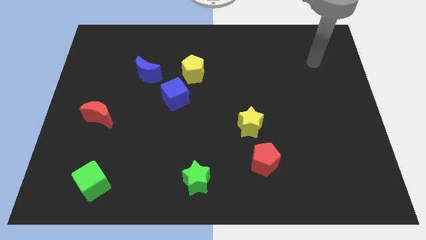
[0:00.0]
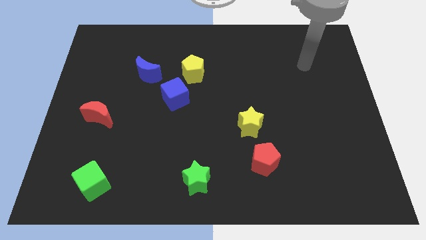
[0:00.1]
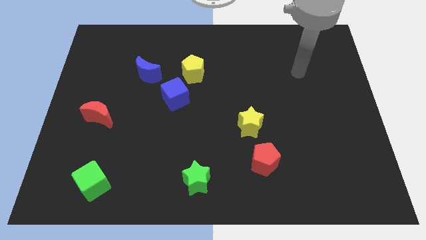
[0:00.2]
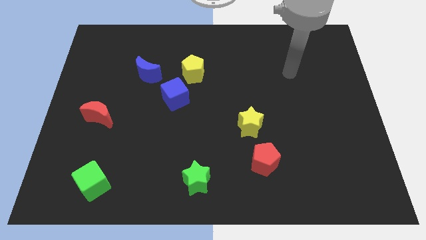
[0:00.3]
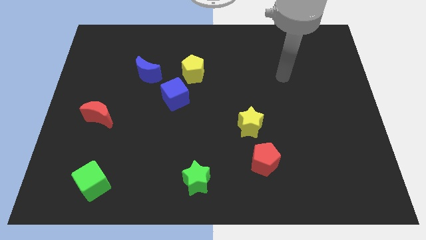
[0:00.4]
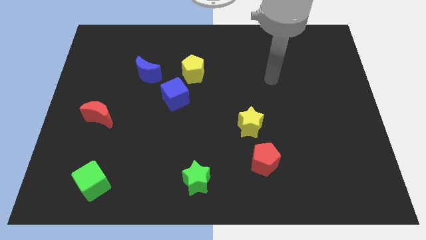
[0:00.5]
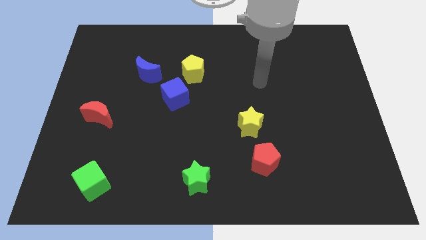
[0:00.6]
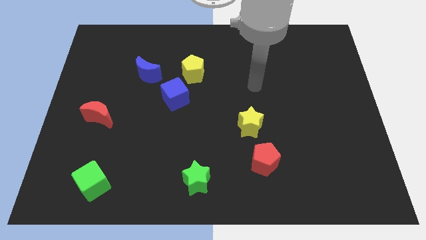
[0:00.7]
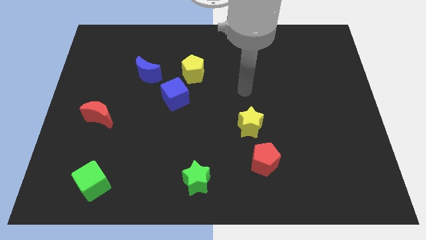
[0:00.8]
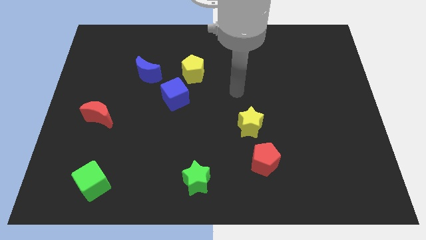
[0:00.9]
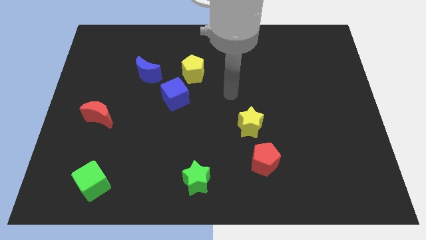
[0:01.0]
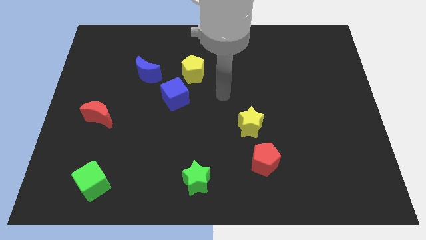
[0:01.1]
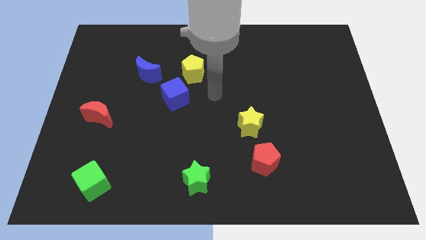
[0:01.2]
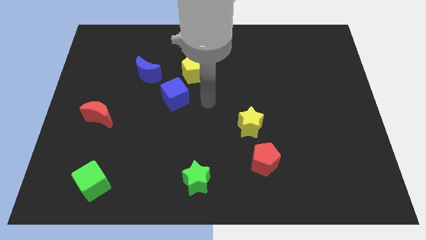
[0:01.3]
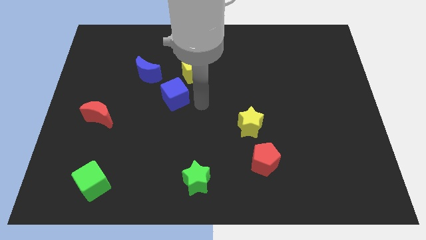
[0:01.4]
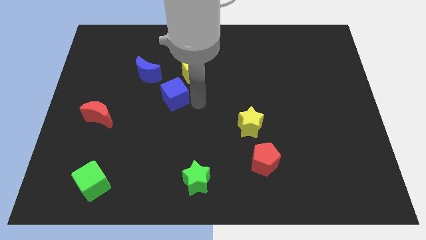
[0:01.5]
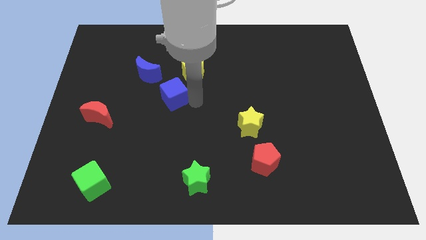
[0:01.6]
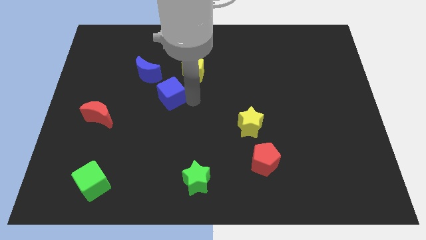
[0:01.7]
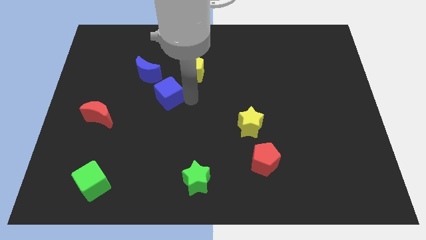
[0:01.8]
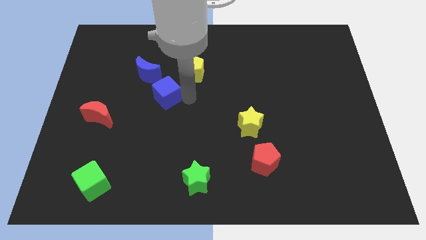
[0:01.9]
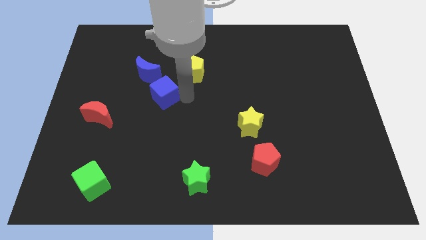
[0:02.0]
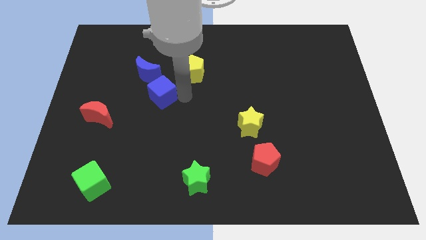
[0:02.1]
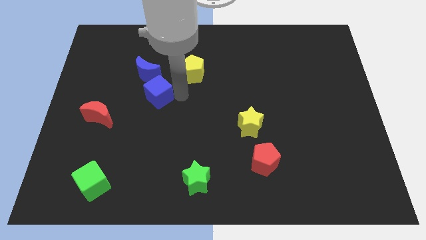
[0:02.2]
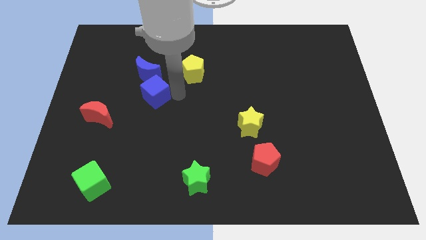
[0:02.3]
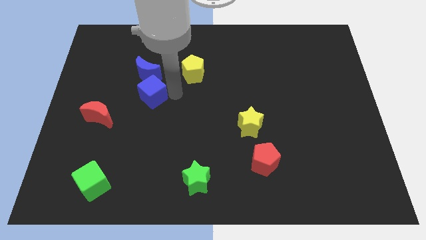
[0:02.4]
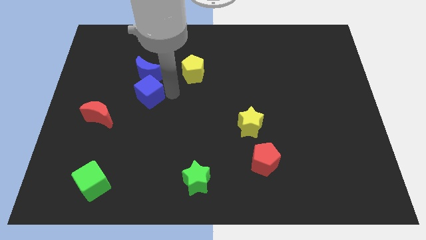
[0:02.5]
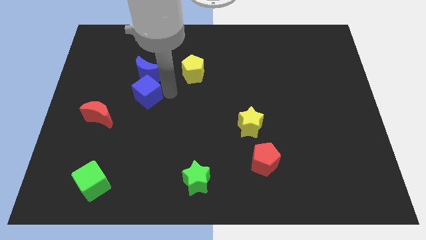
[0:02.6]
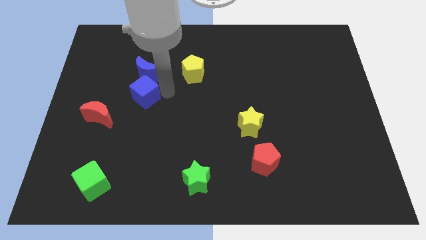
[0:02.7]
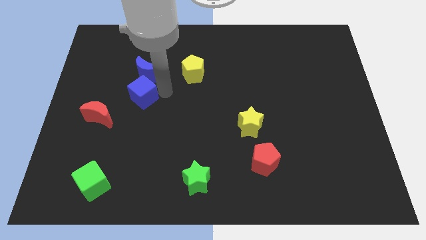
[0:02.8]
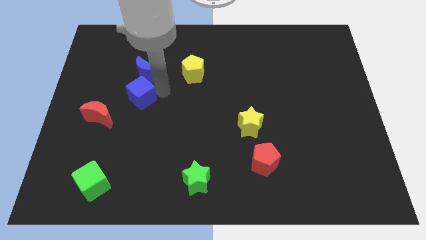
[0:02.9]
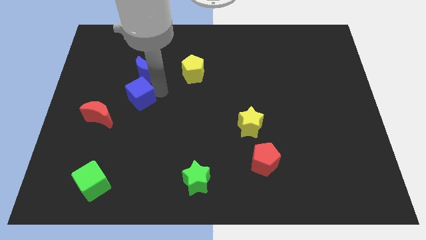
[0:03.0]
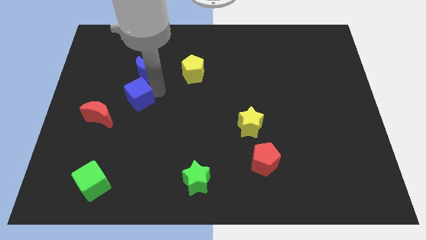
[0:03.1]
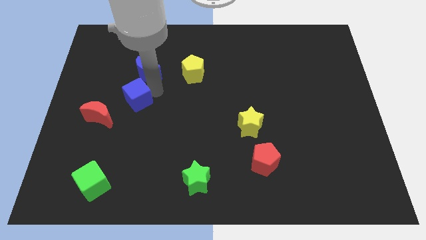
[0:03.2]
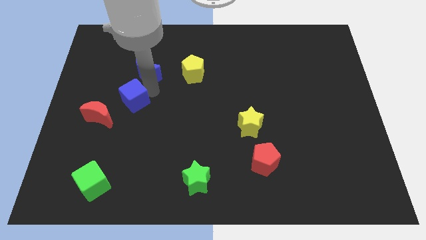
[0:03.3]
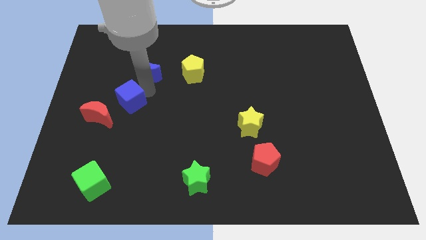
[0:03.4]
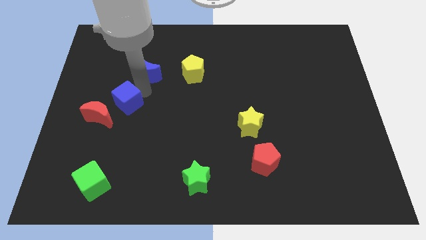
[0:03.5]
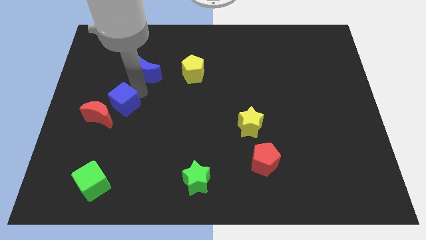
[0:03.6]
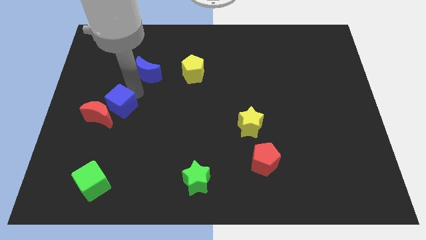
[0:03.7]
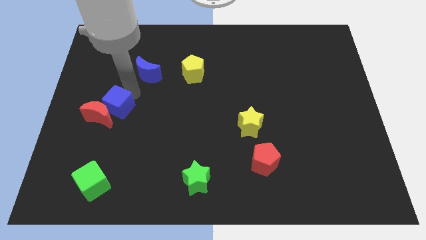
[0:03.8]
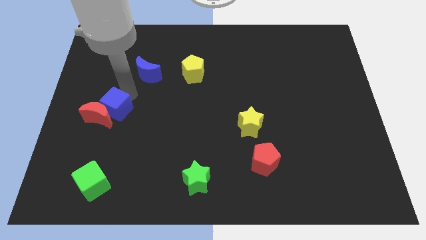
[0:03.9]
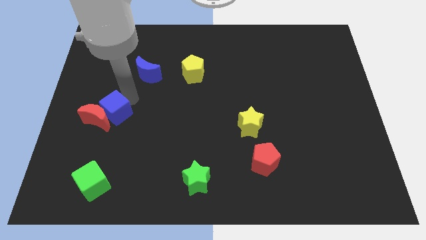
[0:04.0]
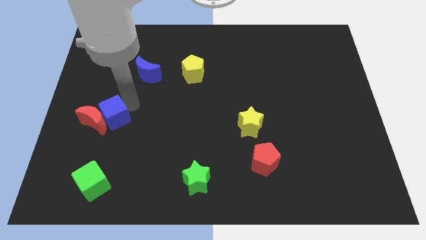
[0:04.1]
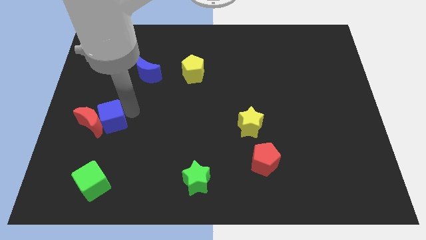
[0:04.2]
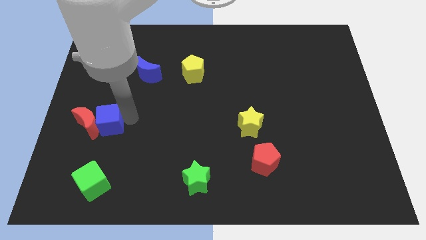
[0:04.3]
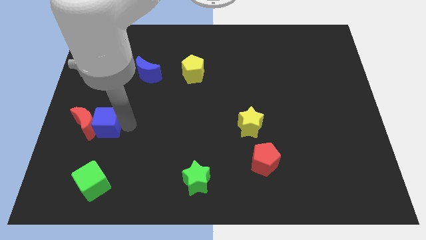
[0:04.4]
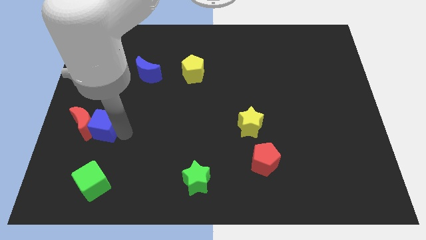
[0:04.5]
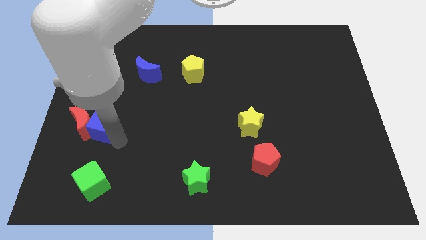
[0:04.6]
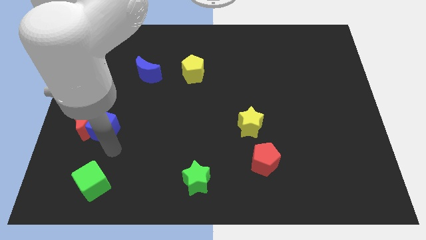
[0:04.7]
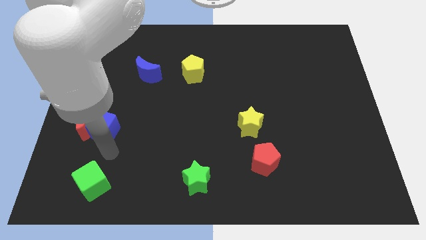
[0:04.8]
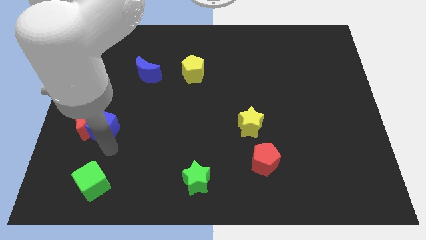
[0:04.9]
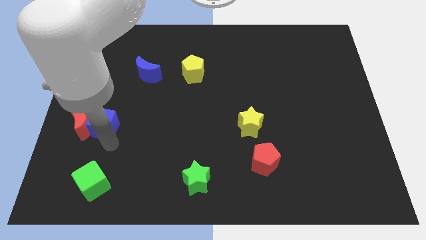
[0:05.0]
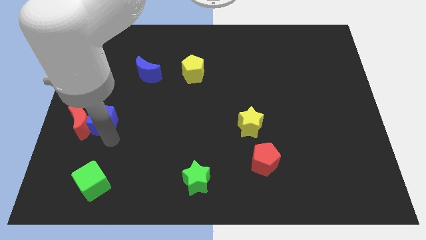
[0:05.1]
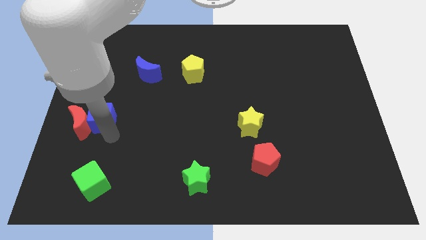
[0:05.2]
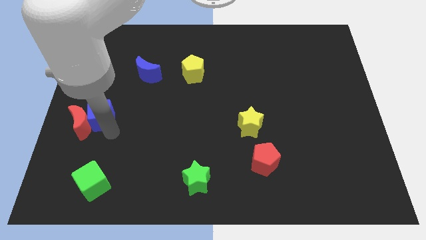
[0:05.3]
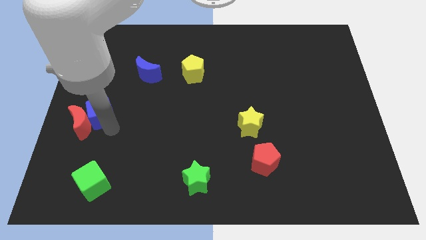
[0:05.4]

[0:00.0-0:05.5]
push the blue cube to the left side

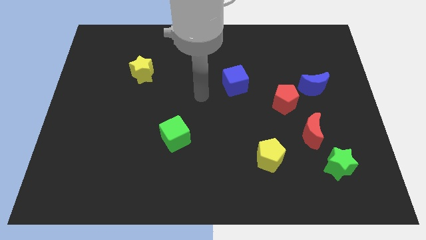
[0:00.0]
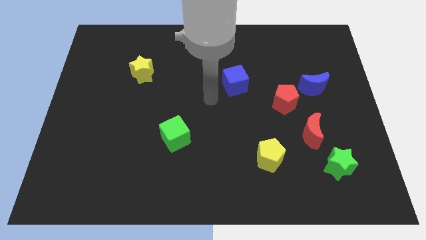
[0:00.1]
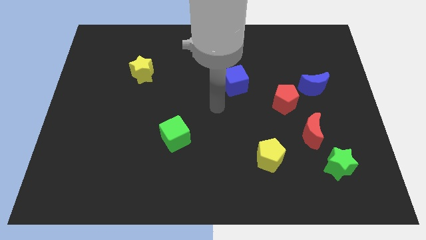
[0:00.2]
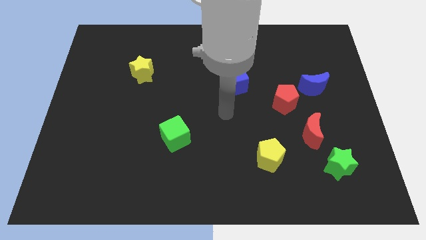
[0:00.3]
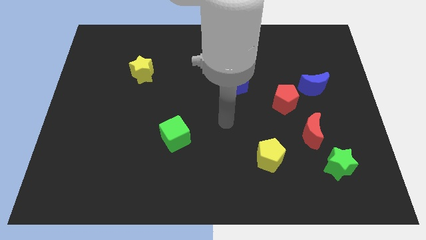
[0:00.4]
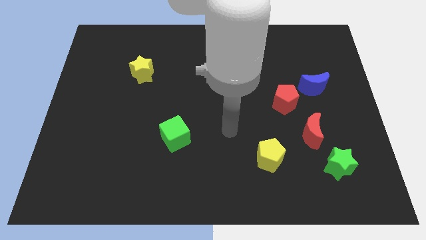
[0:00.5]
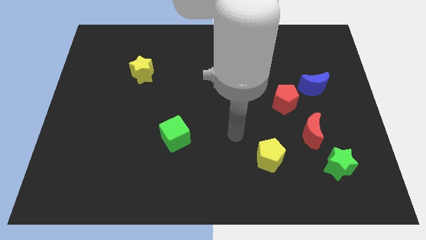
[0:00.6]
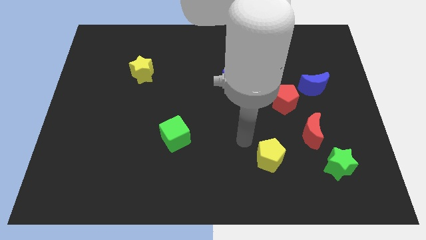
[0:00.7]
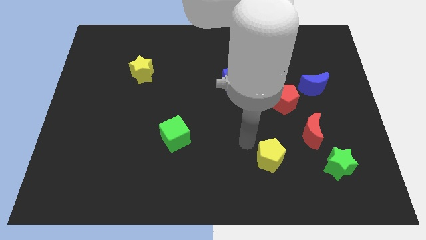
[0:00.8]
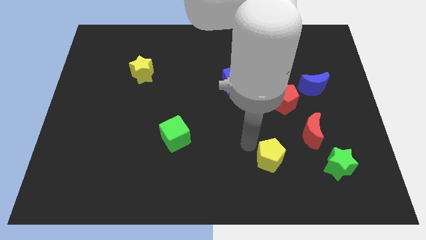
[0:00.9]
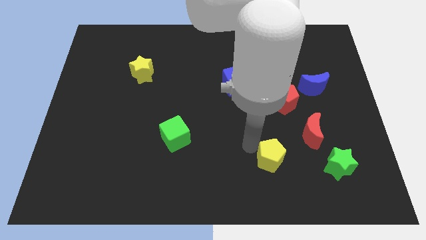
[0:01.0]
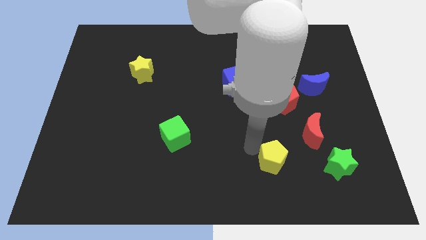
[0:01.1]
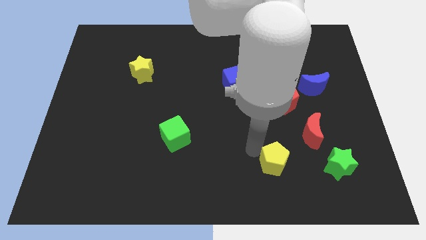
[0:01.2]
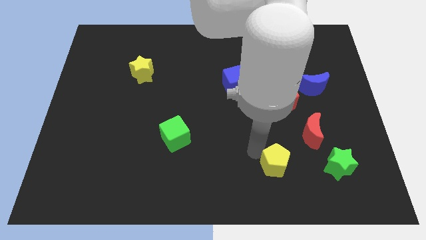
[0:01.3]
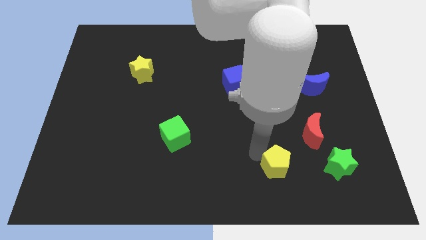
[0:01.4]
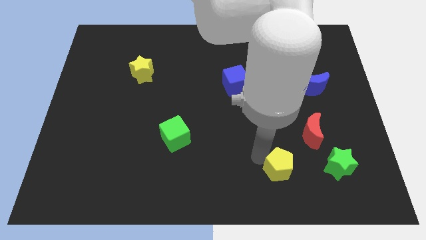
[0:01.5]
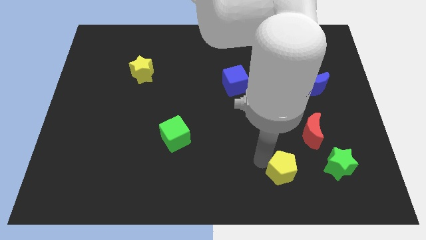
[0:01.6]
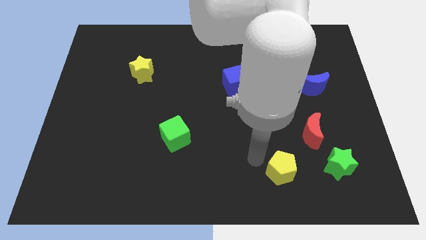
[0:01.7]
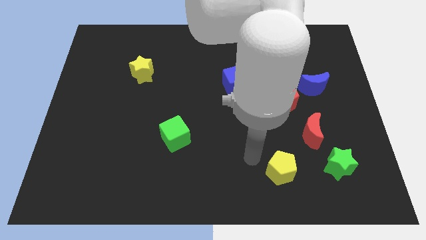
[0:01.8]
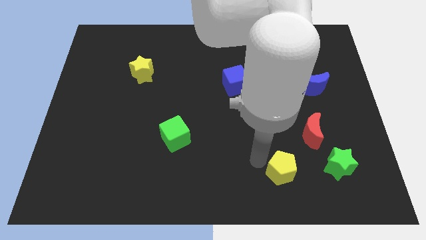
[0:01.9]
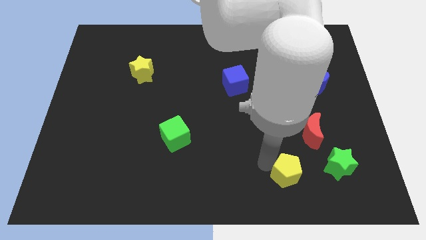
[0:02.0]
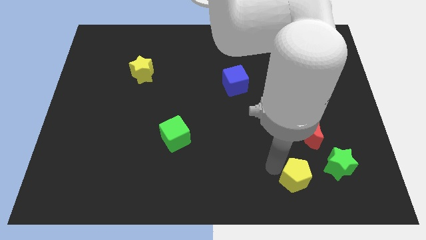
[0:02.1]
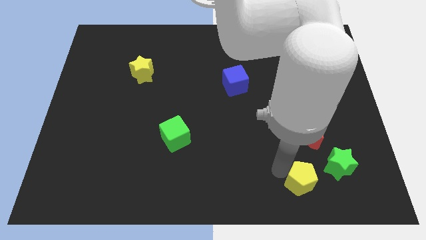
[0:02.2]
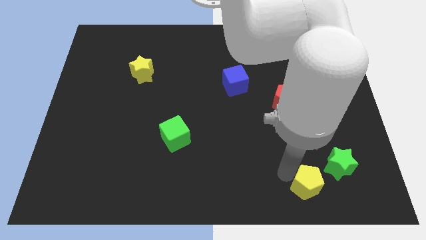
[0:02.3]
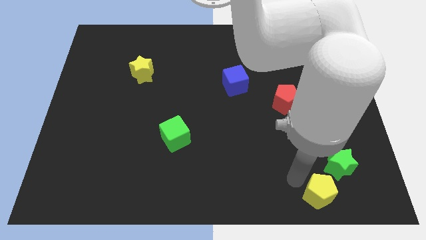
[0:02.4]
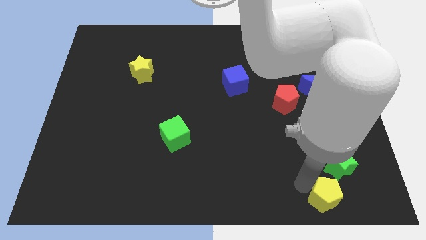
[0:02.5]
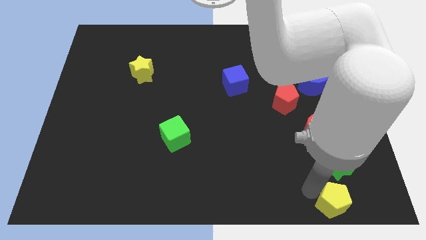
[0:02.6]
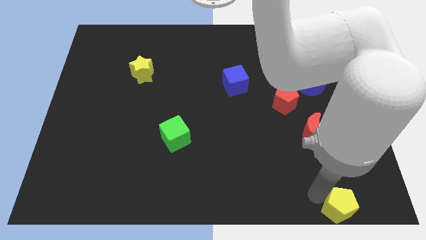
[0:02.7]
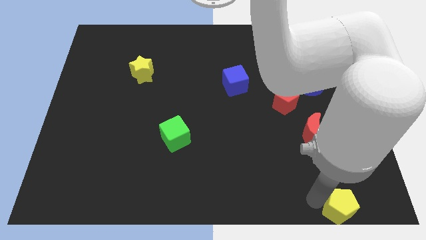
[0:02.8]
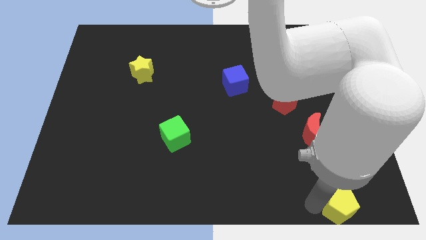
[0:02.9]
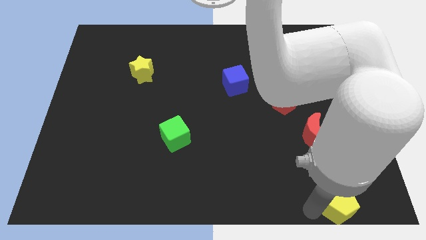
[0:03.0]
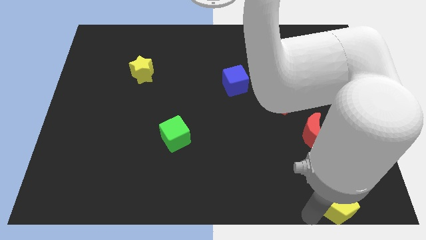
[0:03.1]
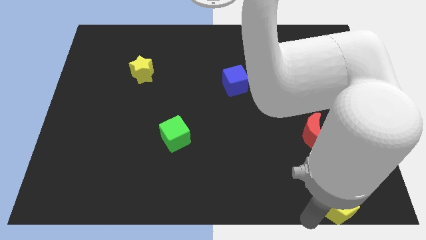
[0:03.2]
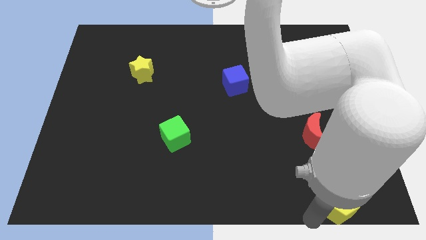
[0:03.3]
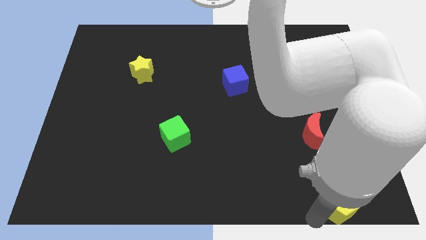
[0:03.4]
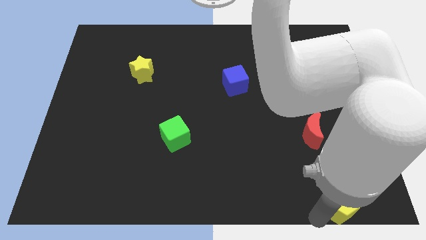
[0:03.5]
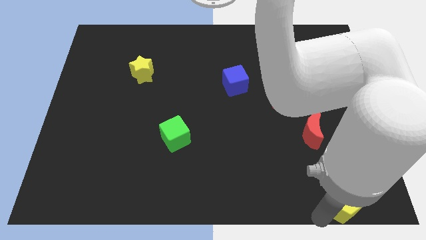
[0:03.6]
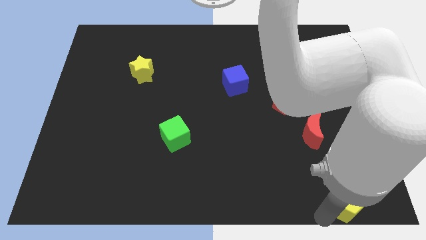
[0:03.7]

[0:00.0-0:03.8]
put the yellow pentagon to the bottom right
